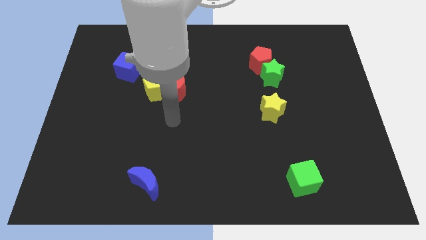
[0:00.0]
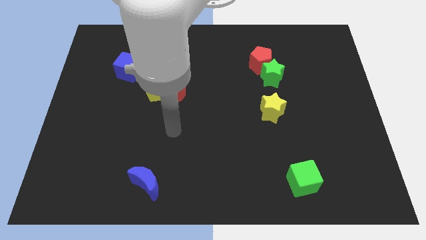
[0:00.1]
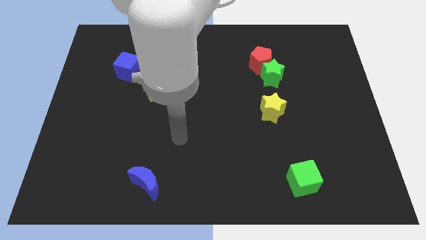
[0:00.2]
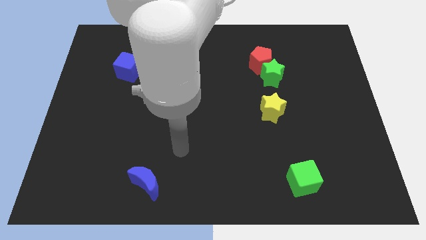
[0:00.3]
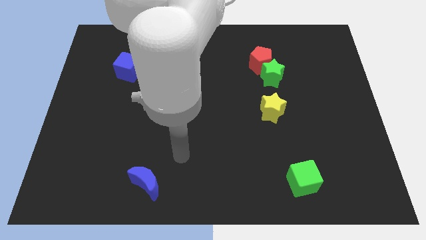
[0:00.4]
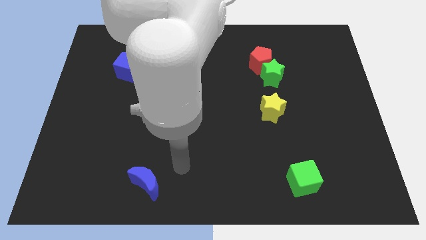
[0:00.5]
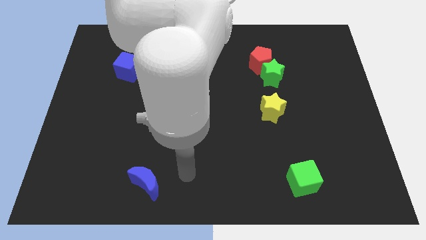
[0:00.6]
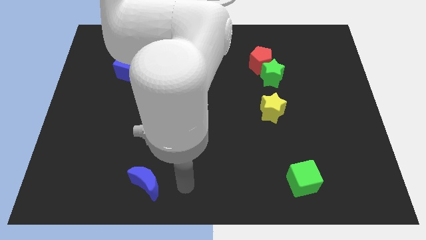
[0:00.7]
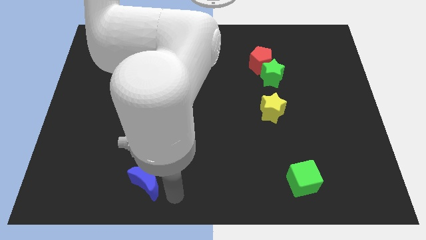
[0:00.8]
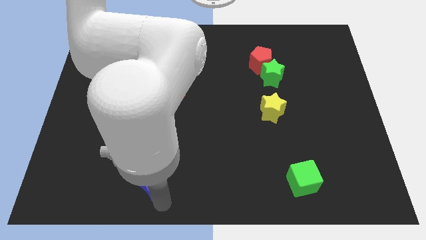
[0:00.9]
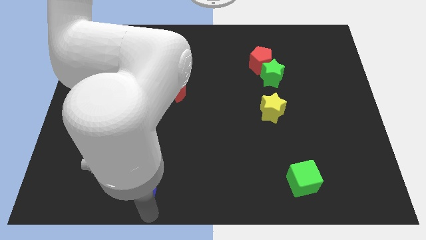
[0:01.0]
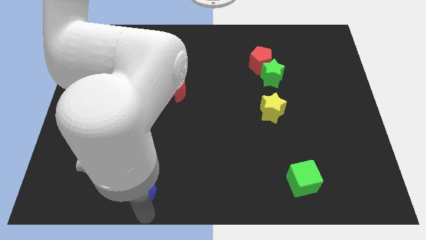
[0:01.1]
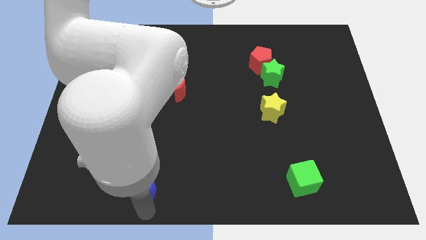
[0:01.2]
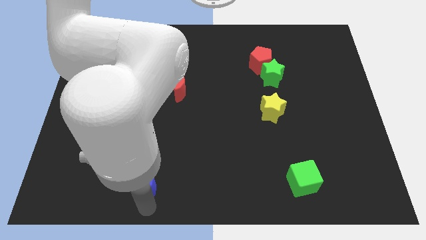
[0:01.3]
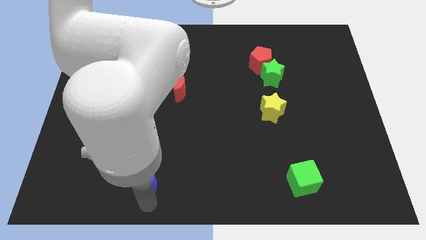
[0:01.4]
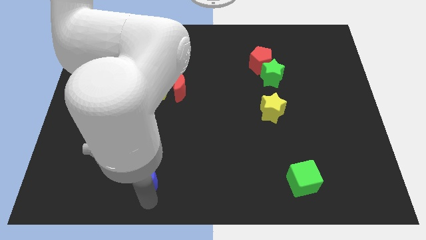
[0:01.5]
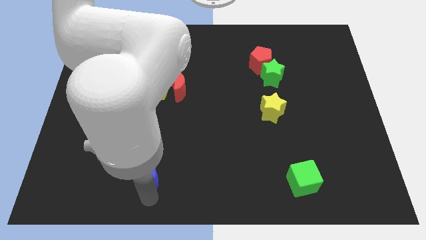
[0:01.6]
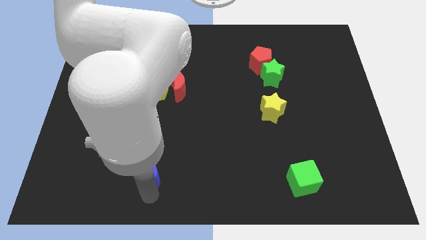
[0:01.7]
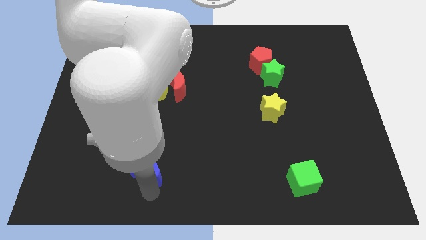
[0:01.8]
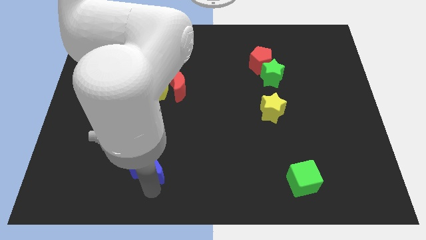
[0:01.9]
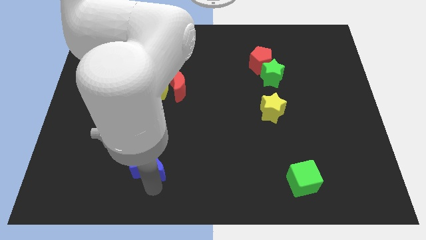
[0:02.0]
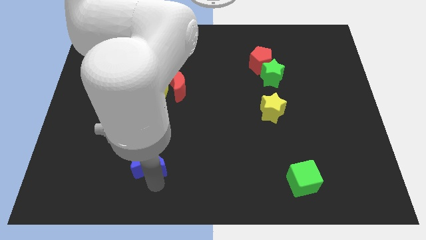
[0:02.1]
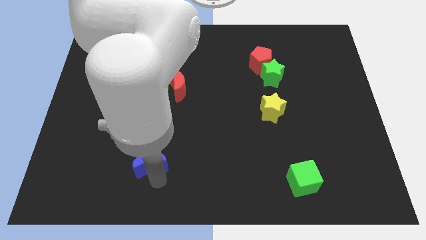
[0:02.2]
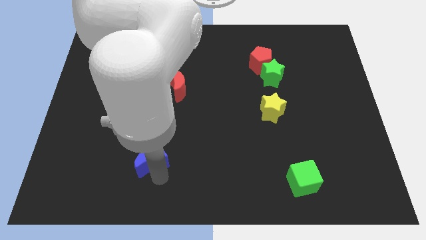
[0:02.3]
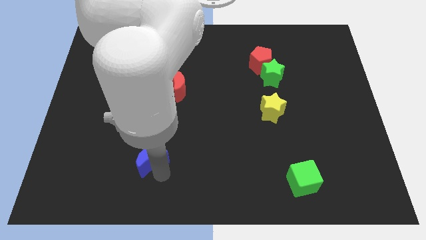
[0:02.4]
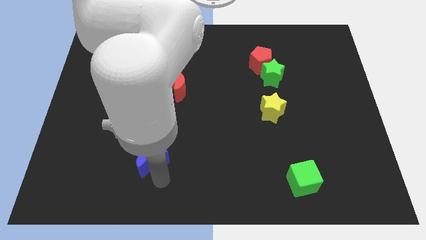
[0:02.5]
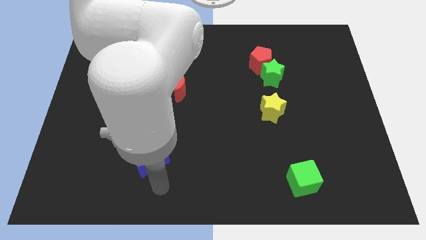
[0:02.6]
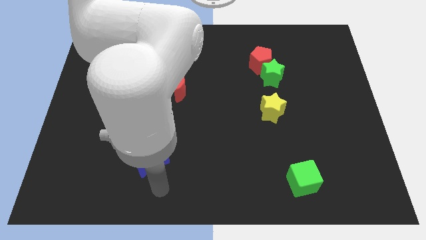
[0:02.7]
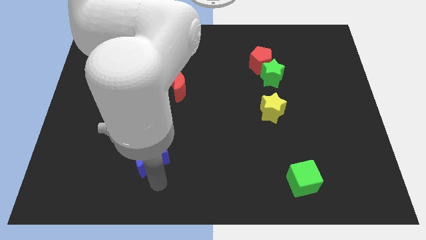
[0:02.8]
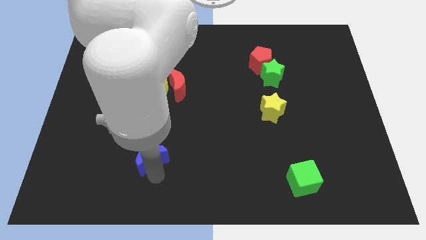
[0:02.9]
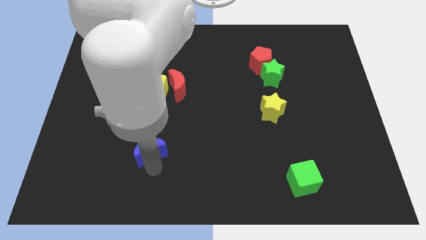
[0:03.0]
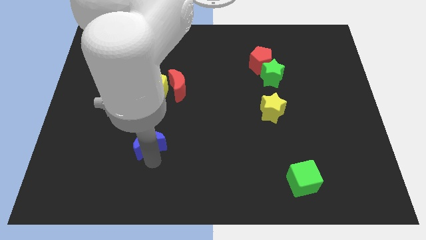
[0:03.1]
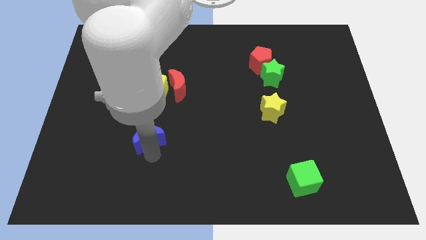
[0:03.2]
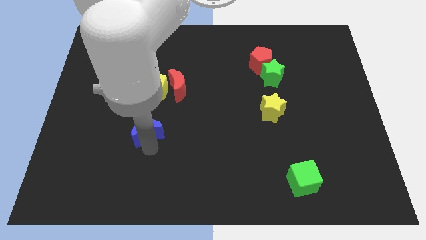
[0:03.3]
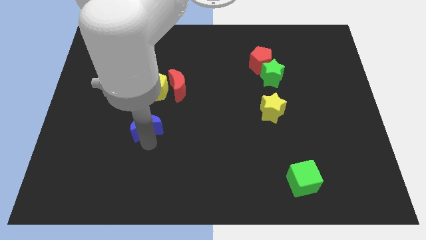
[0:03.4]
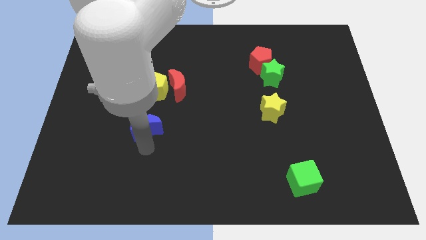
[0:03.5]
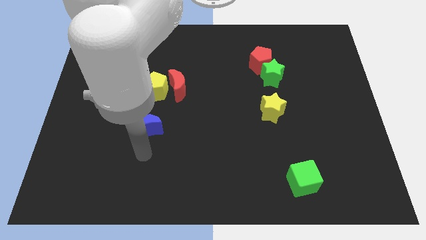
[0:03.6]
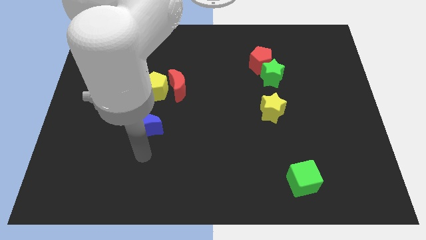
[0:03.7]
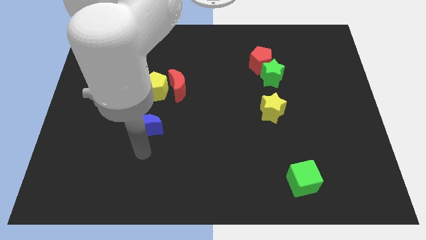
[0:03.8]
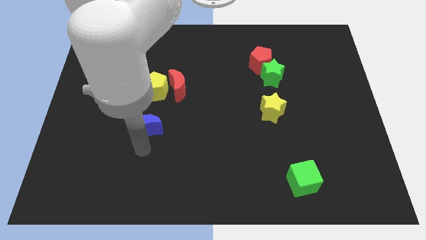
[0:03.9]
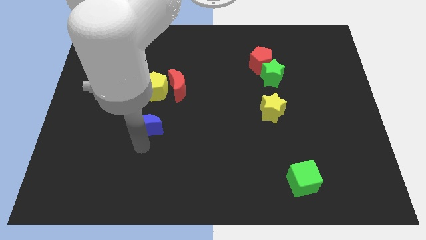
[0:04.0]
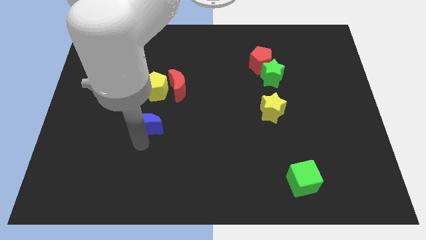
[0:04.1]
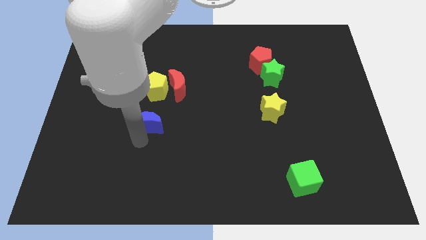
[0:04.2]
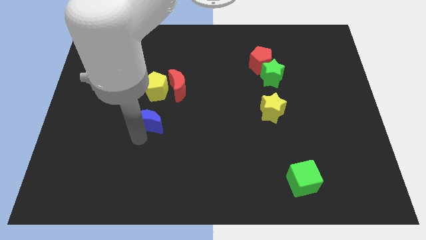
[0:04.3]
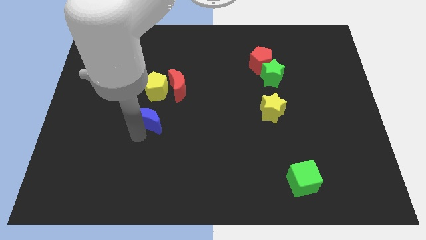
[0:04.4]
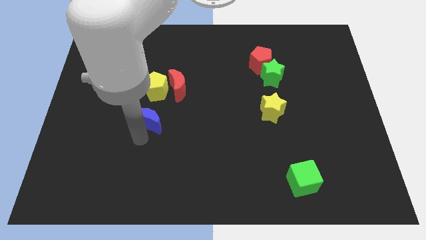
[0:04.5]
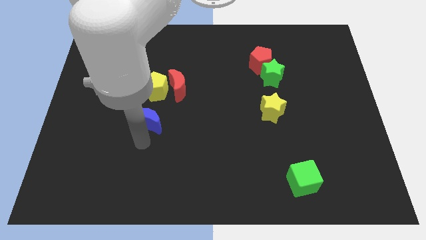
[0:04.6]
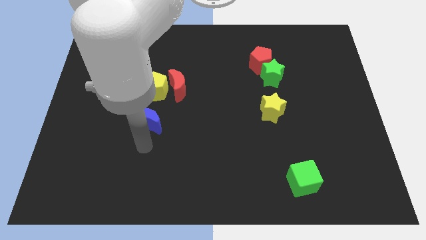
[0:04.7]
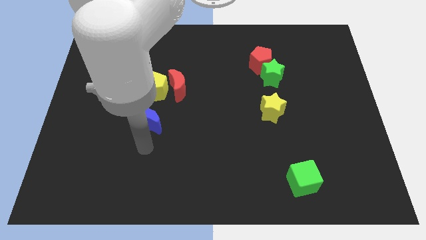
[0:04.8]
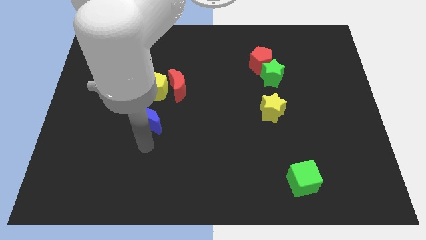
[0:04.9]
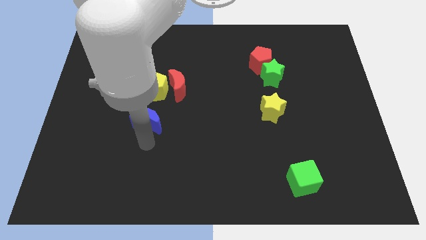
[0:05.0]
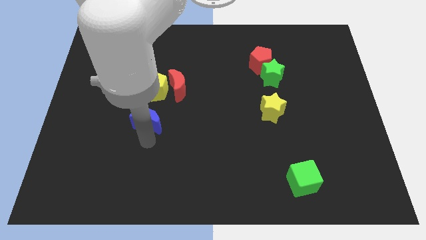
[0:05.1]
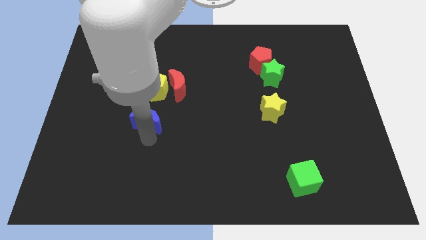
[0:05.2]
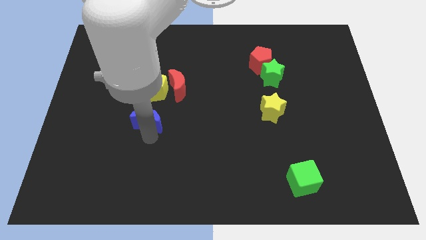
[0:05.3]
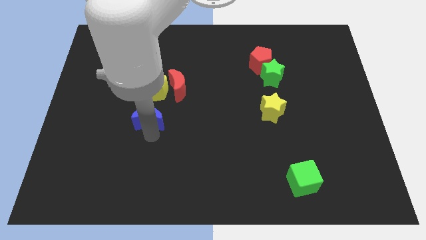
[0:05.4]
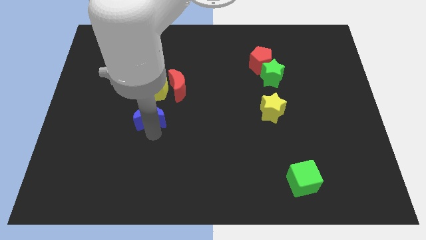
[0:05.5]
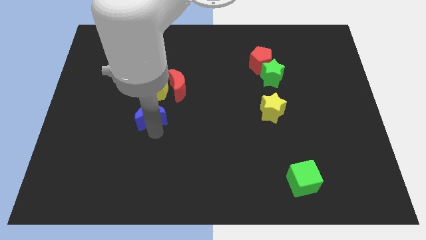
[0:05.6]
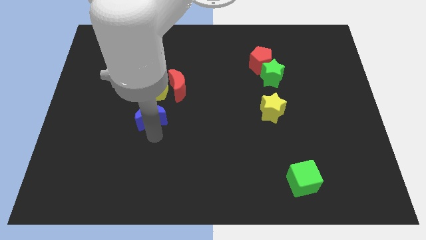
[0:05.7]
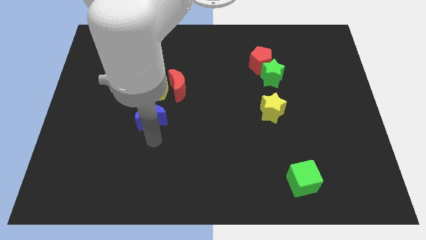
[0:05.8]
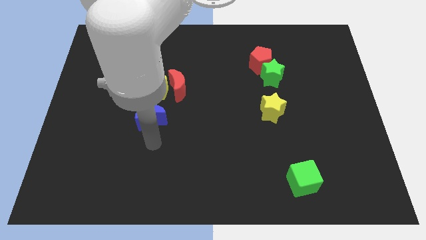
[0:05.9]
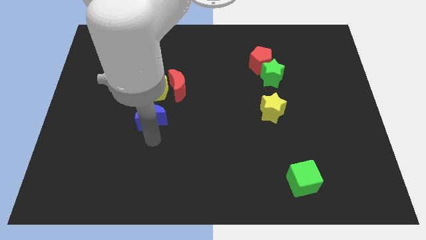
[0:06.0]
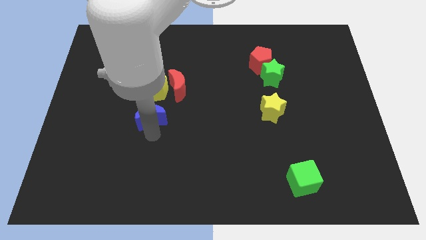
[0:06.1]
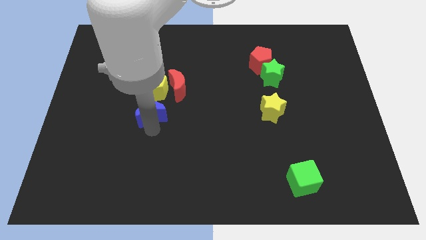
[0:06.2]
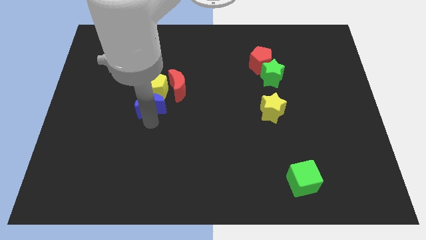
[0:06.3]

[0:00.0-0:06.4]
slide the blue moon next to the yellow pentagon

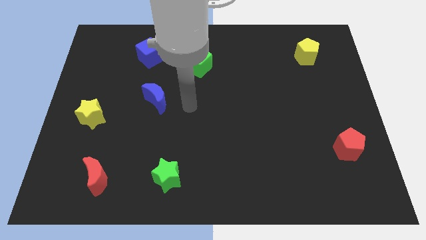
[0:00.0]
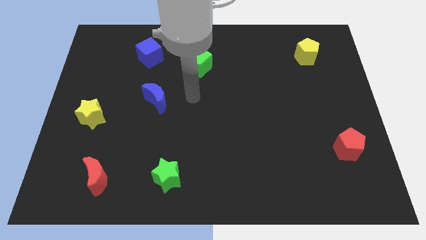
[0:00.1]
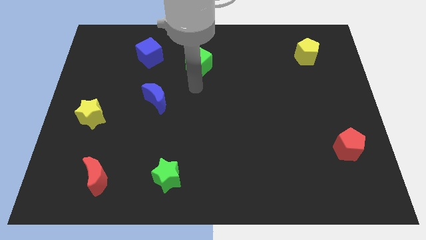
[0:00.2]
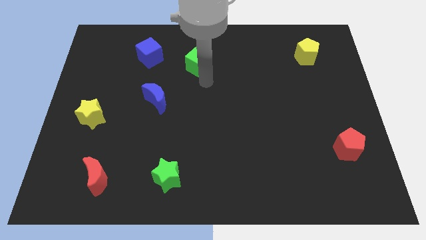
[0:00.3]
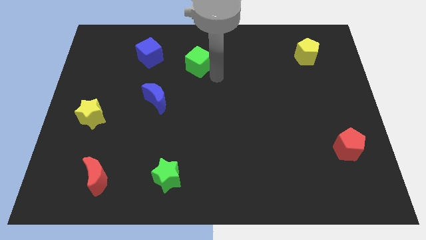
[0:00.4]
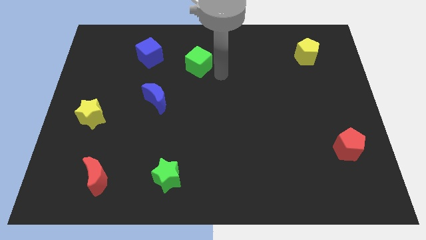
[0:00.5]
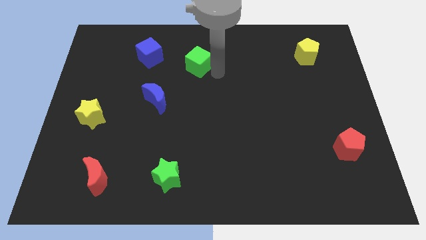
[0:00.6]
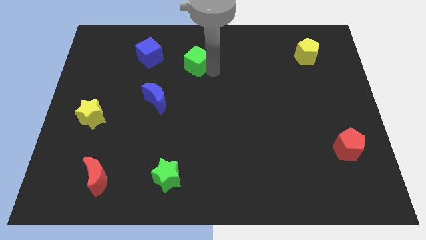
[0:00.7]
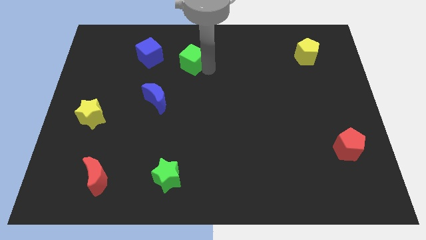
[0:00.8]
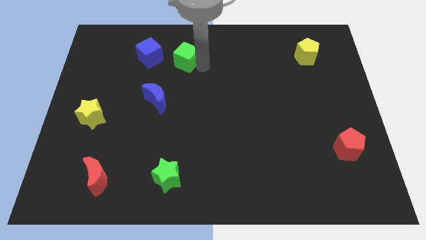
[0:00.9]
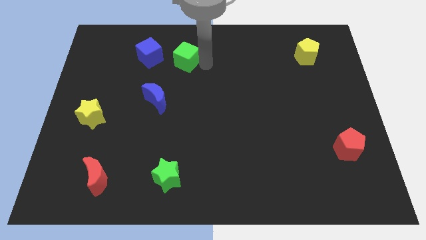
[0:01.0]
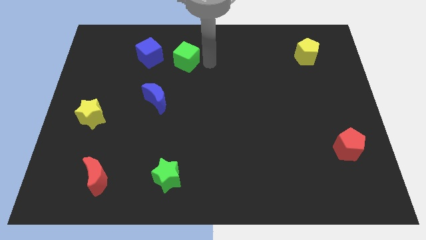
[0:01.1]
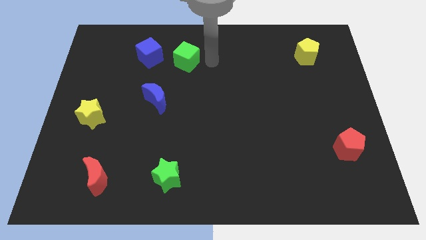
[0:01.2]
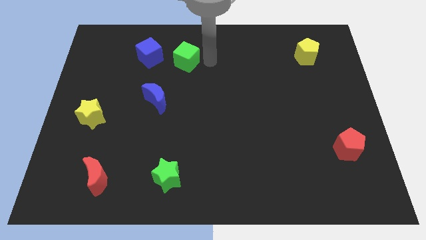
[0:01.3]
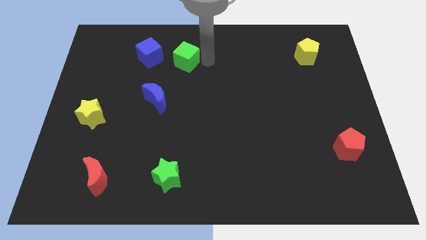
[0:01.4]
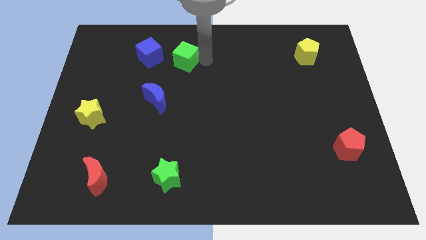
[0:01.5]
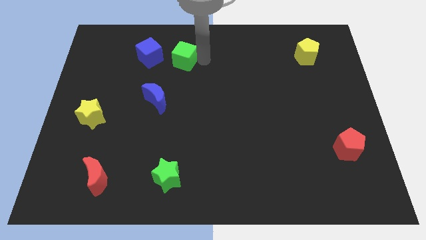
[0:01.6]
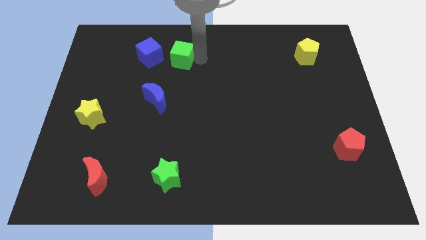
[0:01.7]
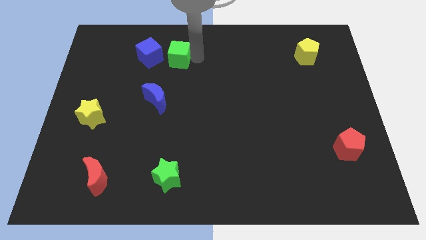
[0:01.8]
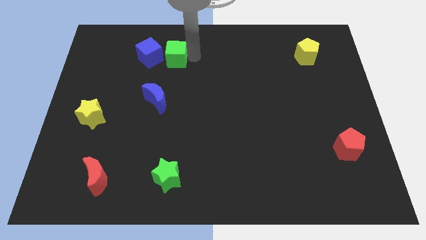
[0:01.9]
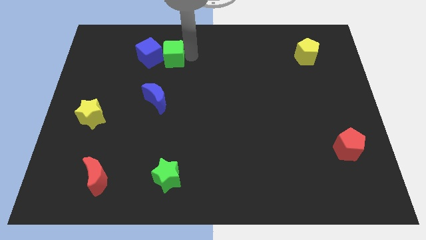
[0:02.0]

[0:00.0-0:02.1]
move the green cube close to the blue cube
